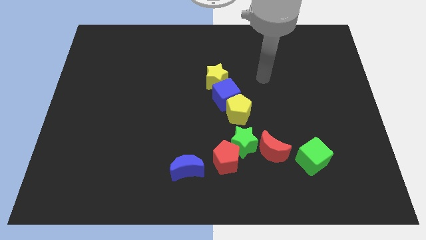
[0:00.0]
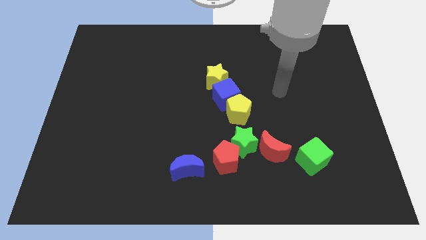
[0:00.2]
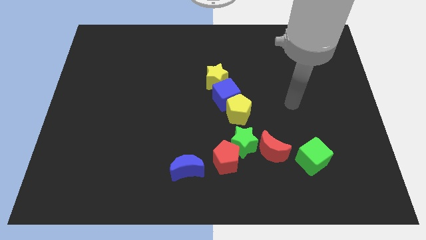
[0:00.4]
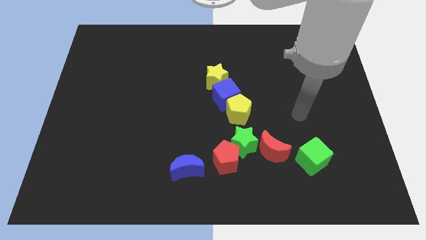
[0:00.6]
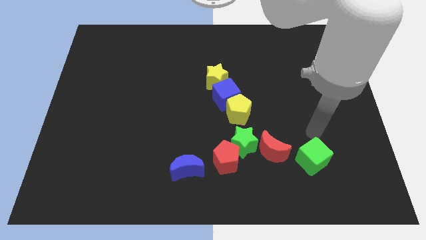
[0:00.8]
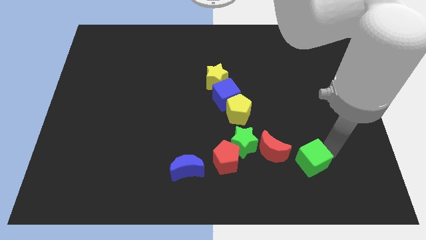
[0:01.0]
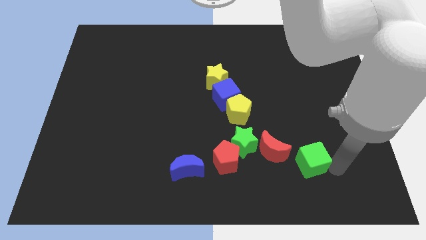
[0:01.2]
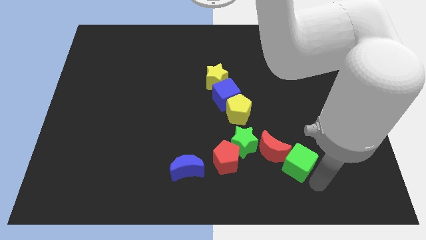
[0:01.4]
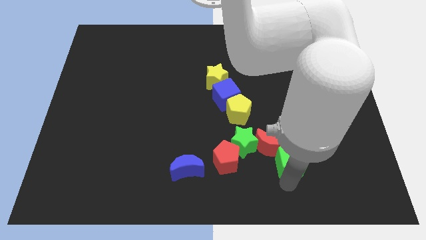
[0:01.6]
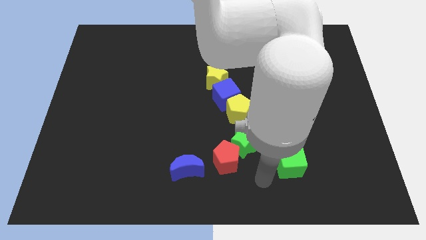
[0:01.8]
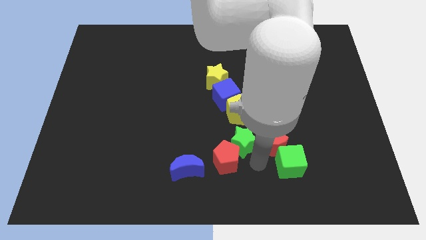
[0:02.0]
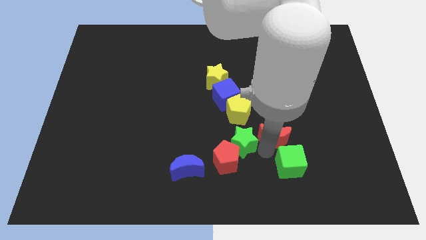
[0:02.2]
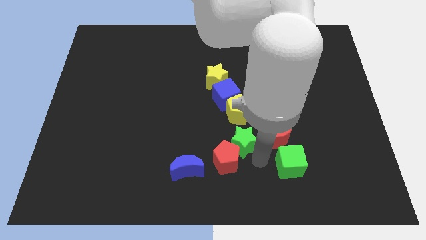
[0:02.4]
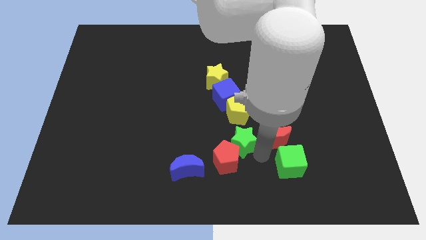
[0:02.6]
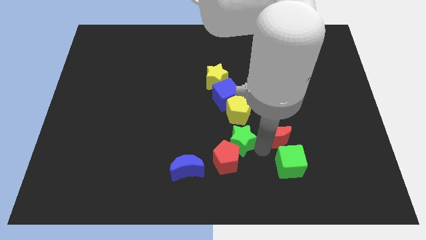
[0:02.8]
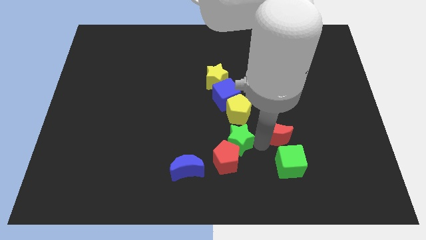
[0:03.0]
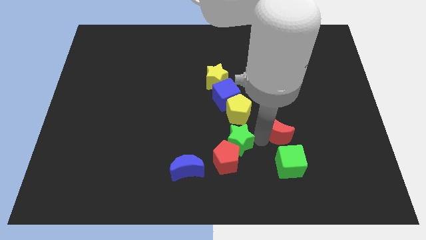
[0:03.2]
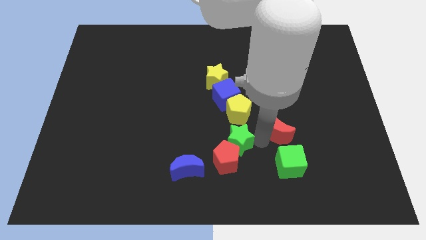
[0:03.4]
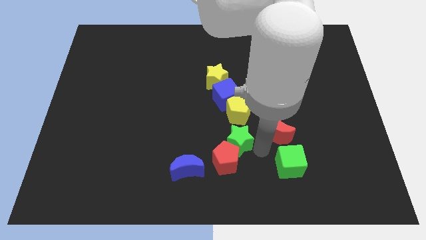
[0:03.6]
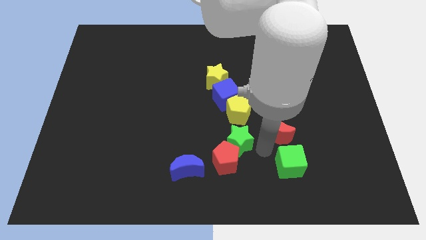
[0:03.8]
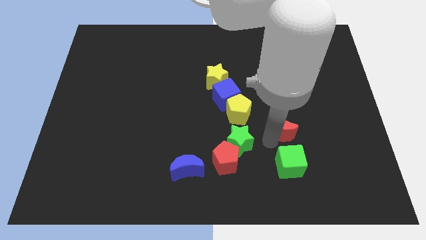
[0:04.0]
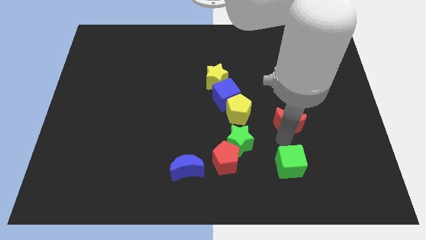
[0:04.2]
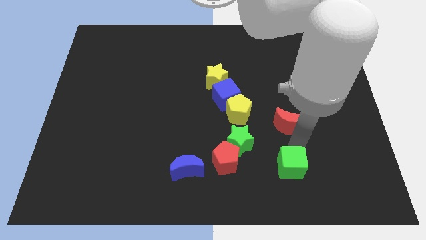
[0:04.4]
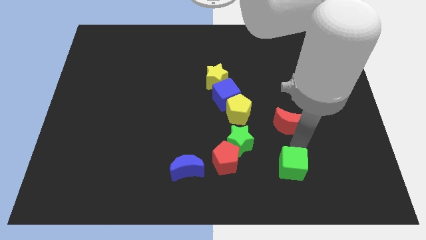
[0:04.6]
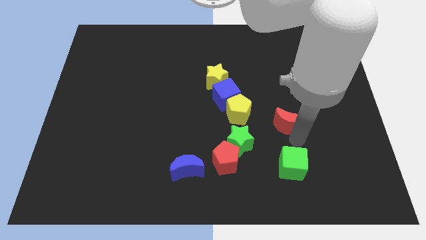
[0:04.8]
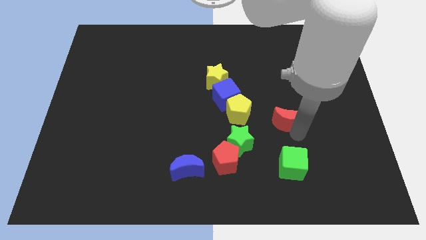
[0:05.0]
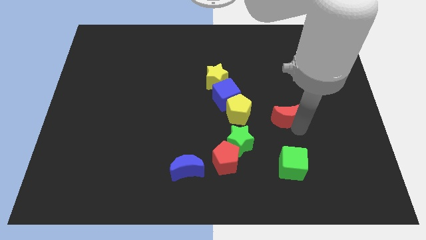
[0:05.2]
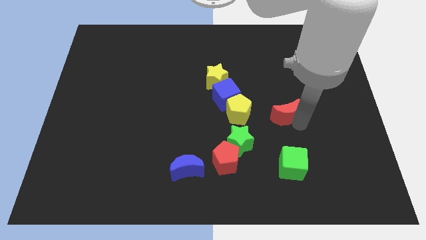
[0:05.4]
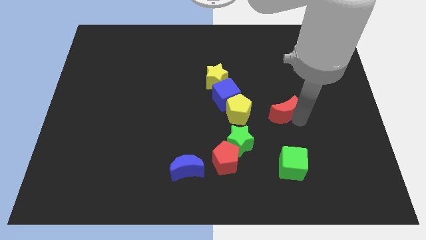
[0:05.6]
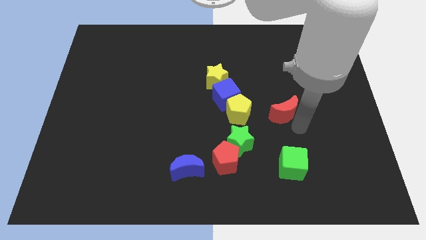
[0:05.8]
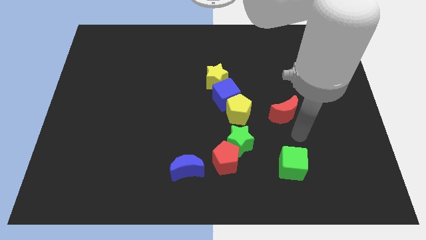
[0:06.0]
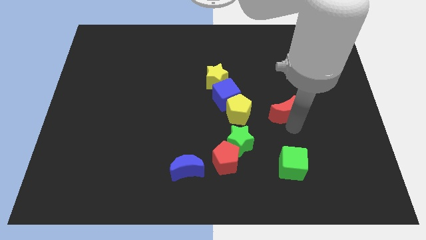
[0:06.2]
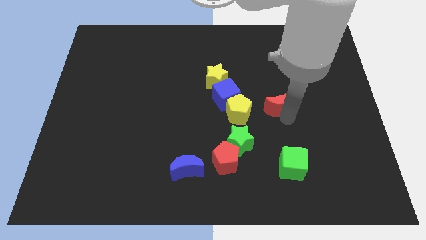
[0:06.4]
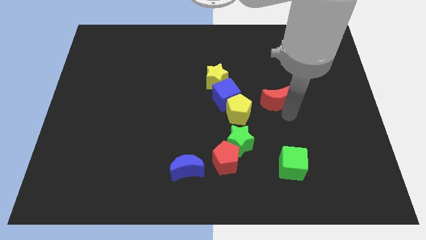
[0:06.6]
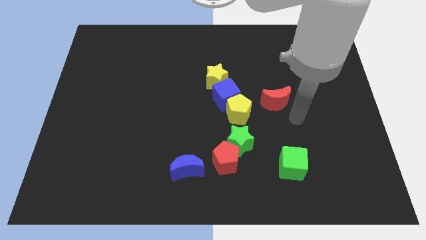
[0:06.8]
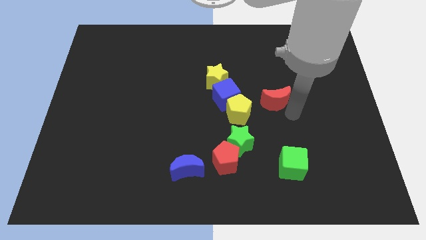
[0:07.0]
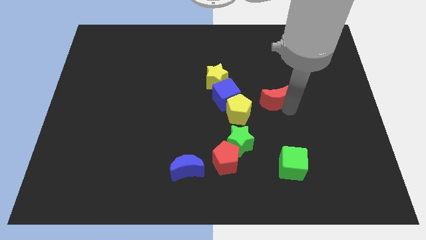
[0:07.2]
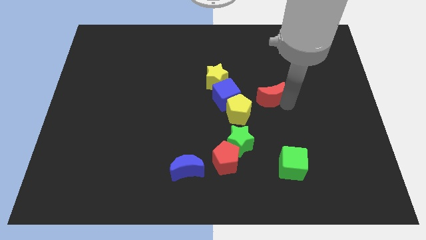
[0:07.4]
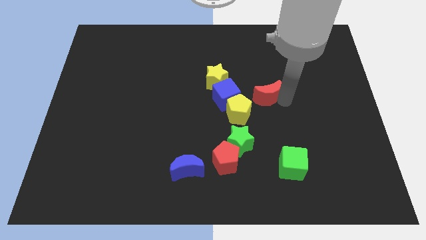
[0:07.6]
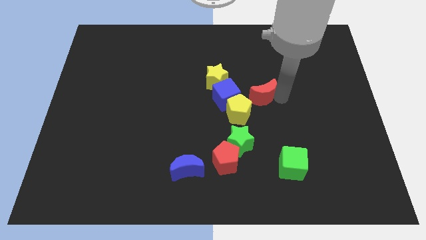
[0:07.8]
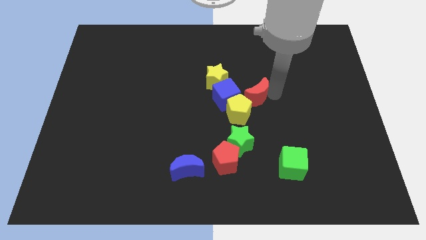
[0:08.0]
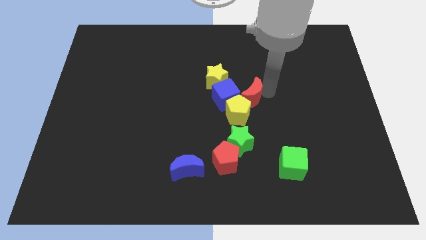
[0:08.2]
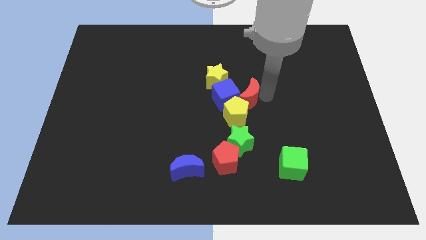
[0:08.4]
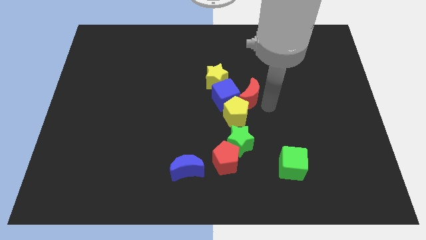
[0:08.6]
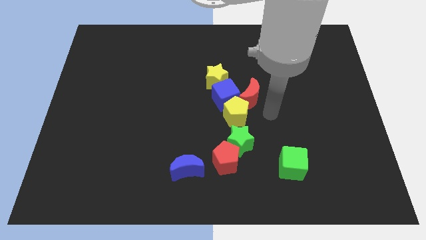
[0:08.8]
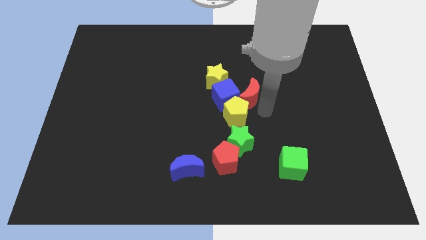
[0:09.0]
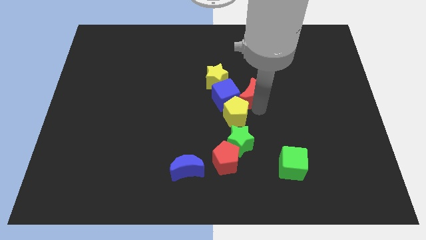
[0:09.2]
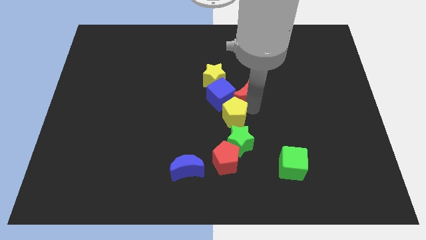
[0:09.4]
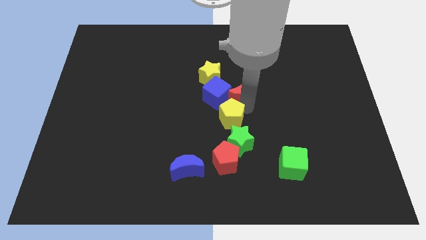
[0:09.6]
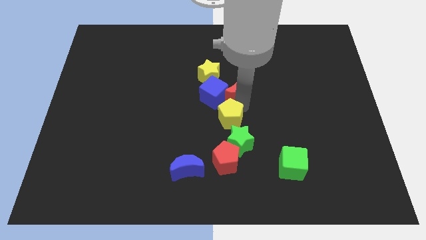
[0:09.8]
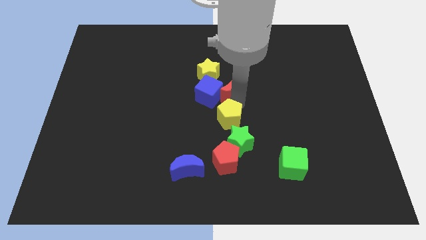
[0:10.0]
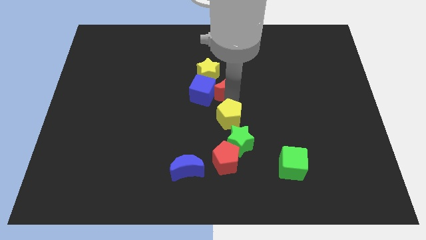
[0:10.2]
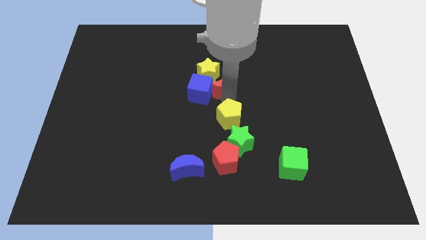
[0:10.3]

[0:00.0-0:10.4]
push the red moon towards the yellow star

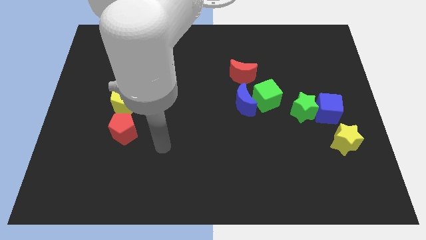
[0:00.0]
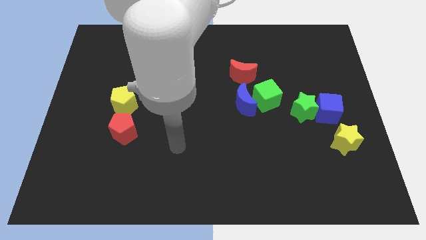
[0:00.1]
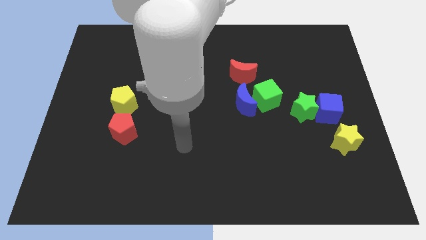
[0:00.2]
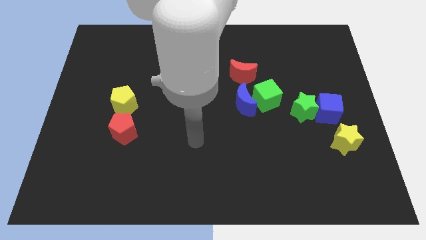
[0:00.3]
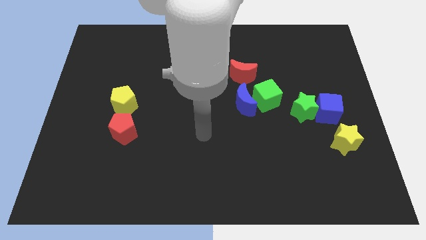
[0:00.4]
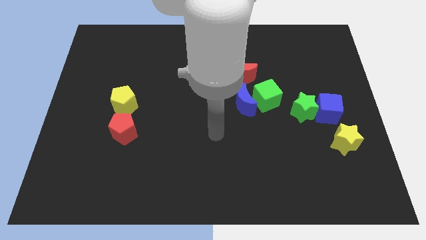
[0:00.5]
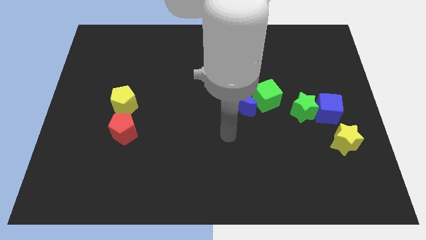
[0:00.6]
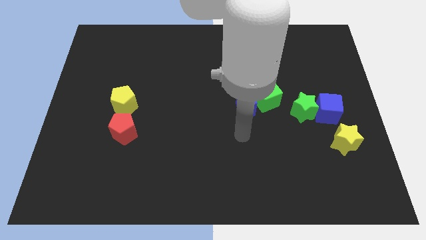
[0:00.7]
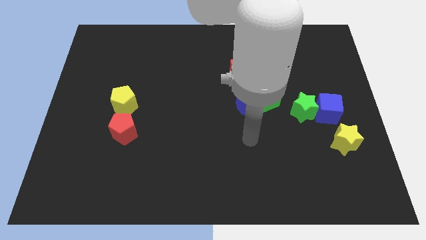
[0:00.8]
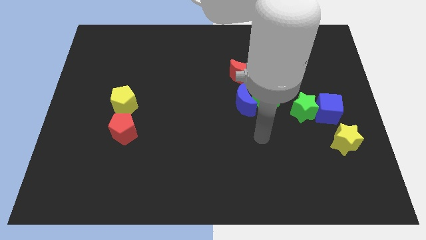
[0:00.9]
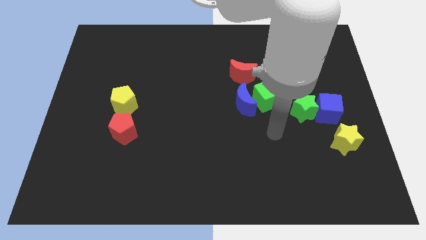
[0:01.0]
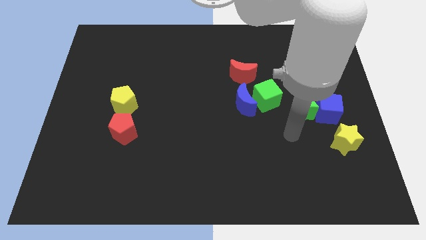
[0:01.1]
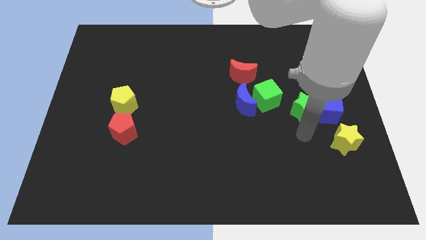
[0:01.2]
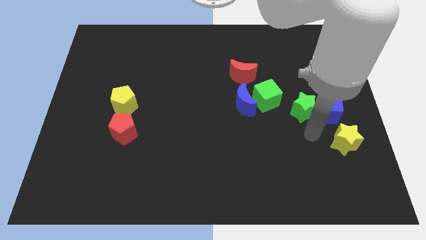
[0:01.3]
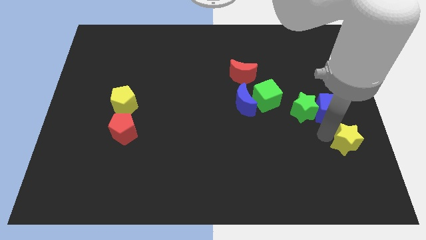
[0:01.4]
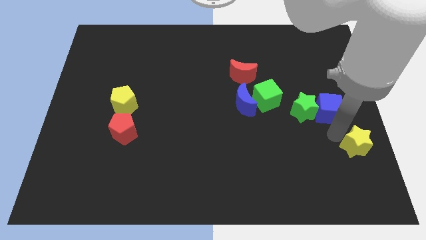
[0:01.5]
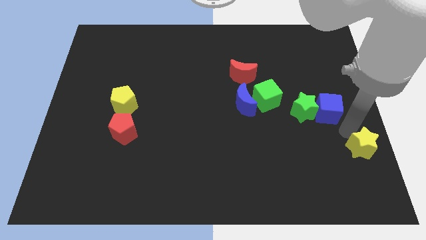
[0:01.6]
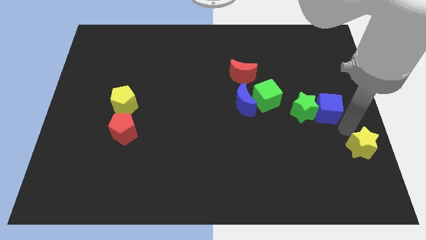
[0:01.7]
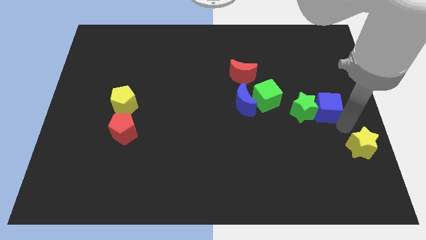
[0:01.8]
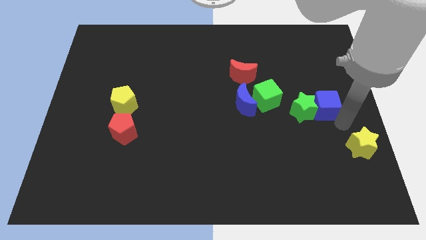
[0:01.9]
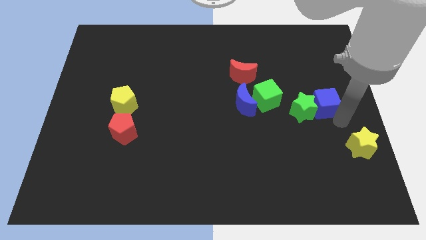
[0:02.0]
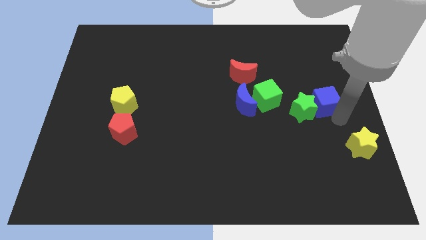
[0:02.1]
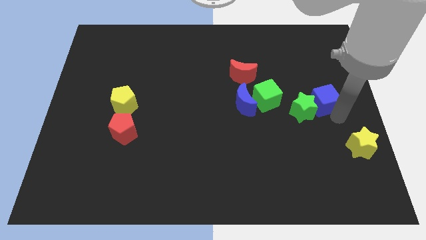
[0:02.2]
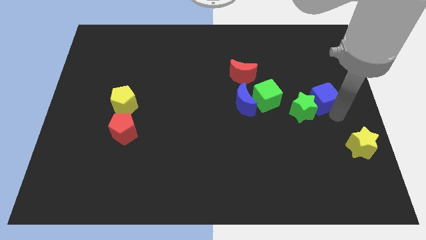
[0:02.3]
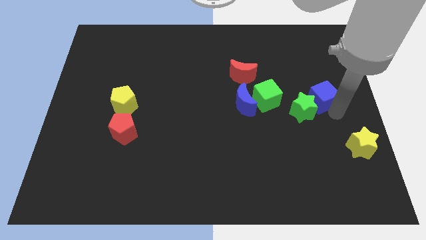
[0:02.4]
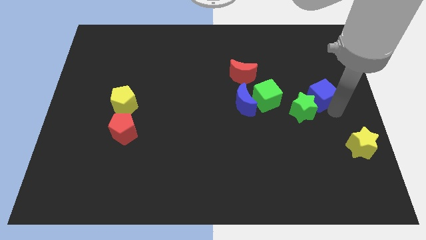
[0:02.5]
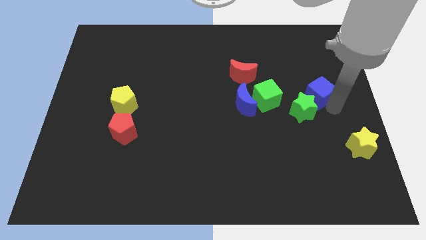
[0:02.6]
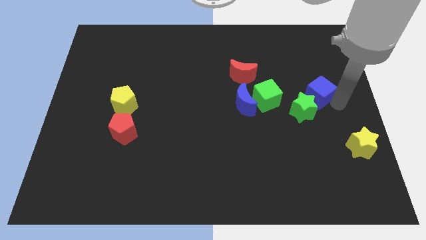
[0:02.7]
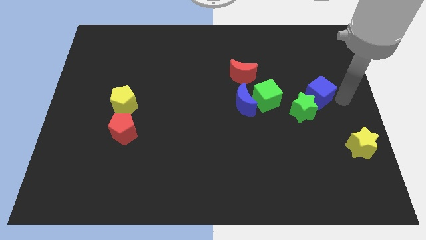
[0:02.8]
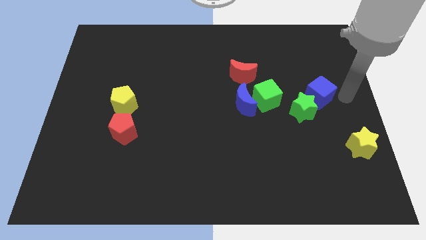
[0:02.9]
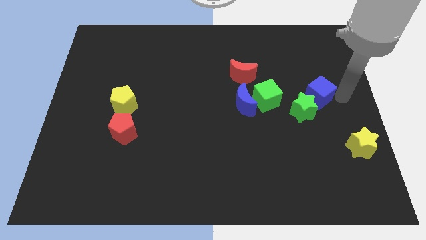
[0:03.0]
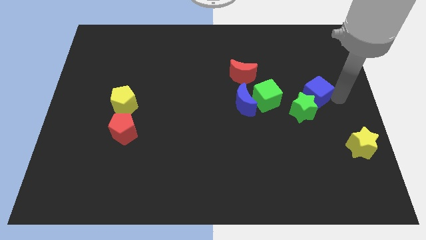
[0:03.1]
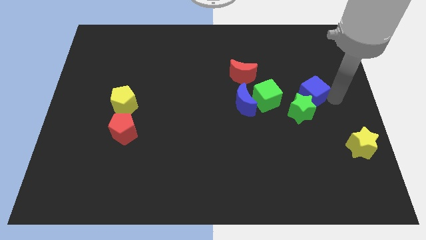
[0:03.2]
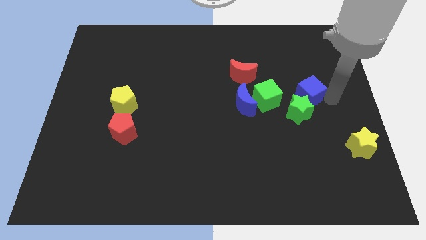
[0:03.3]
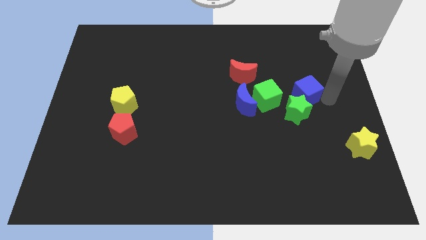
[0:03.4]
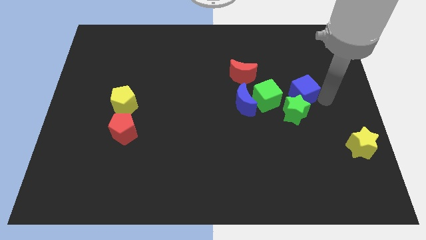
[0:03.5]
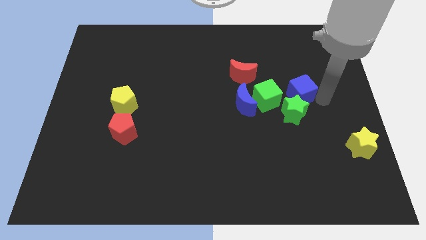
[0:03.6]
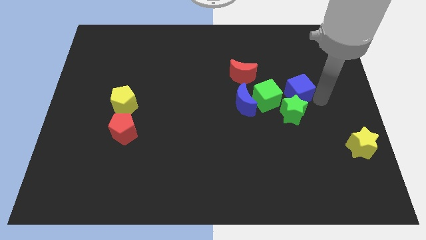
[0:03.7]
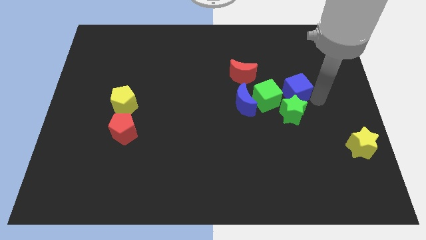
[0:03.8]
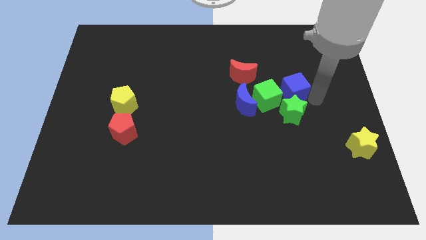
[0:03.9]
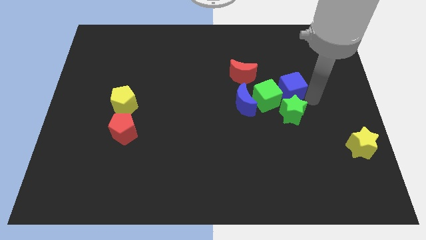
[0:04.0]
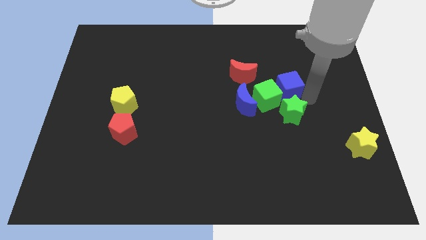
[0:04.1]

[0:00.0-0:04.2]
slide the blue cube to the green cube
